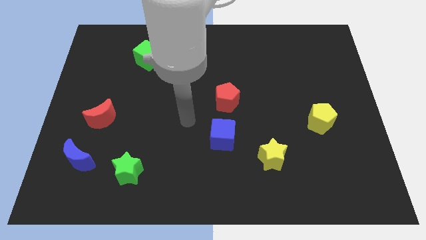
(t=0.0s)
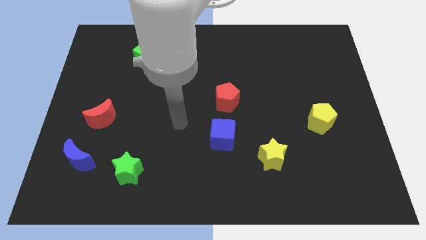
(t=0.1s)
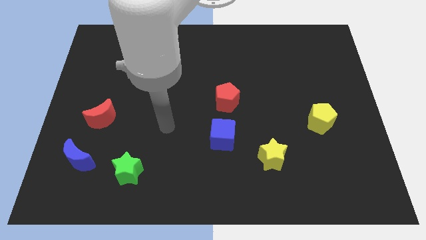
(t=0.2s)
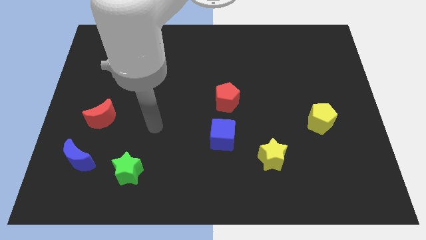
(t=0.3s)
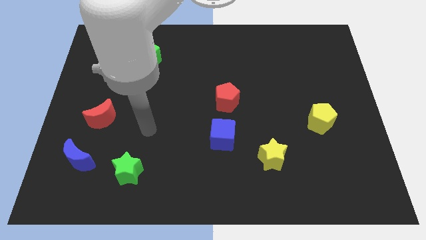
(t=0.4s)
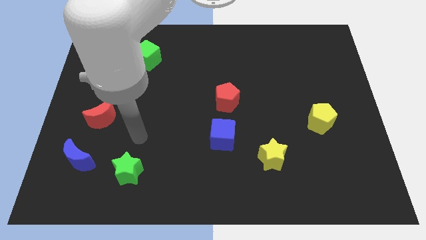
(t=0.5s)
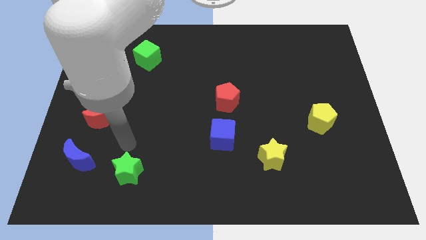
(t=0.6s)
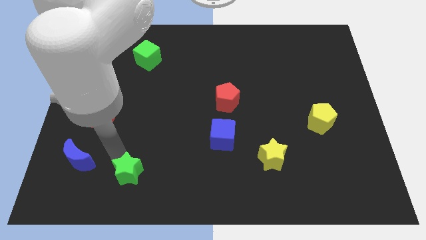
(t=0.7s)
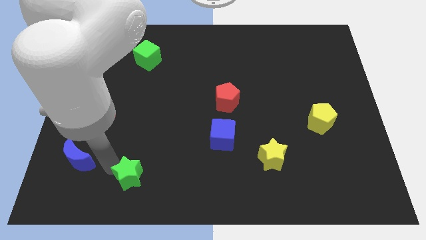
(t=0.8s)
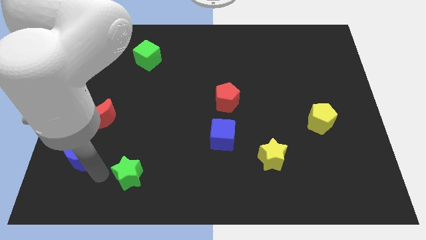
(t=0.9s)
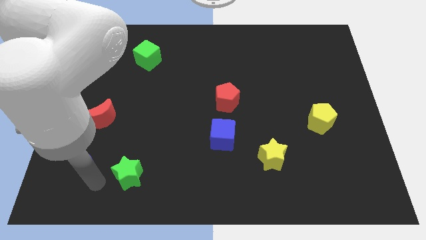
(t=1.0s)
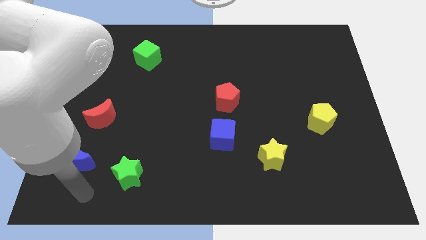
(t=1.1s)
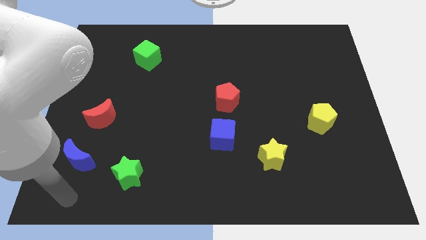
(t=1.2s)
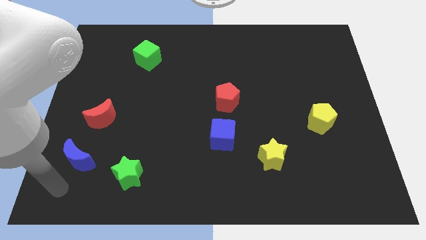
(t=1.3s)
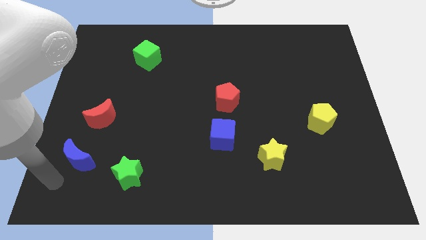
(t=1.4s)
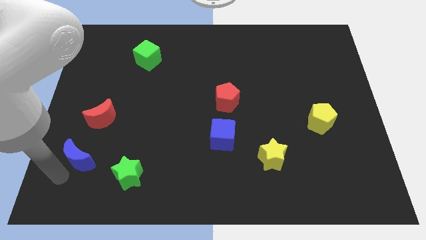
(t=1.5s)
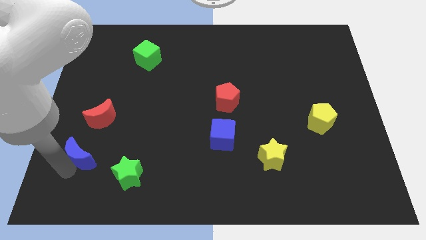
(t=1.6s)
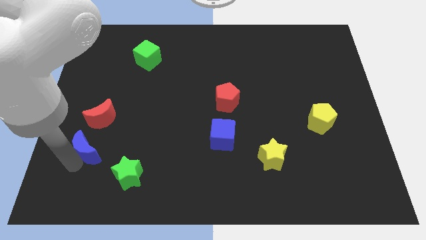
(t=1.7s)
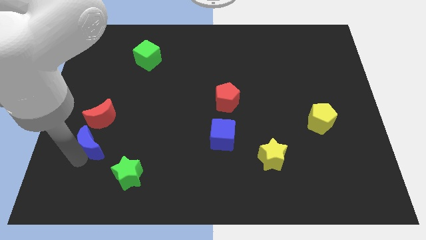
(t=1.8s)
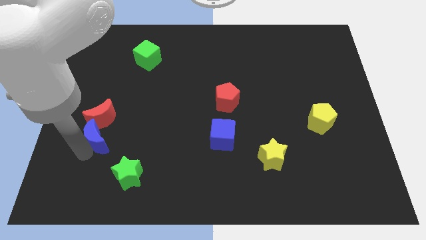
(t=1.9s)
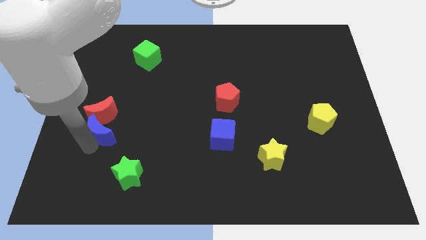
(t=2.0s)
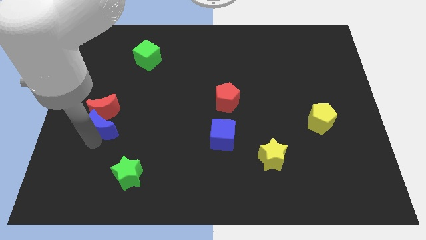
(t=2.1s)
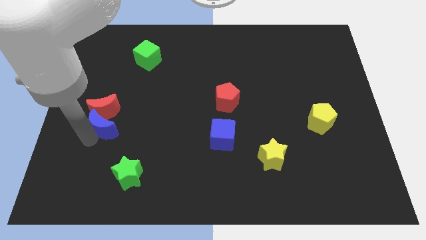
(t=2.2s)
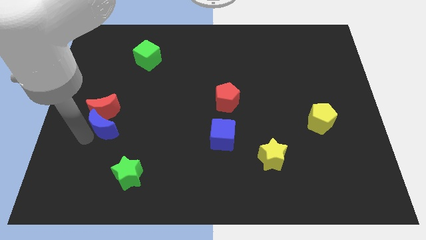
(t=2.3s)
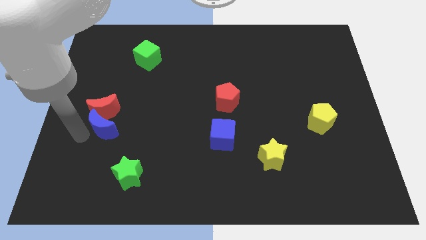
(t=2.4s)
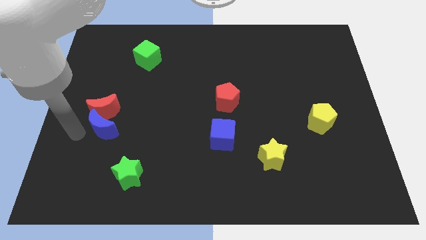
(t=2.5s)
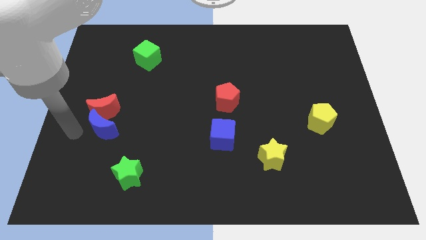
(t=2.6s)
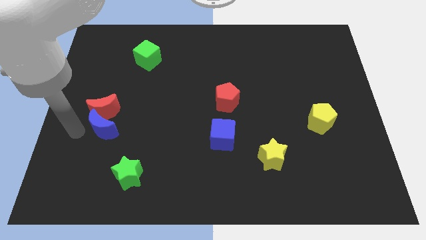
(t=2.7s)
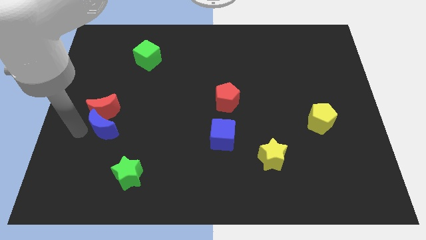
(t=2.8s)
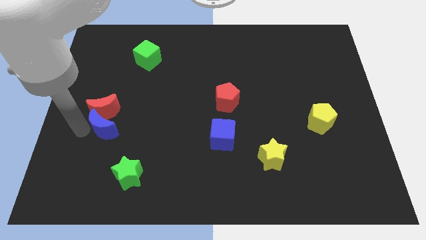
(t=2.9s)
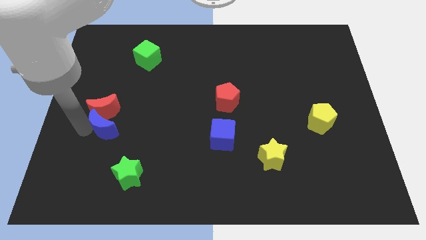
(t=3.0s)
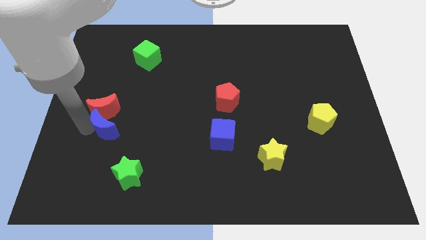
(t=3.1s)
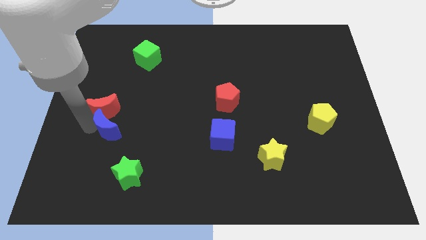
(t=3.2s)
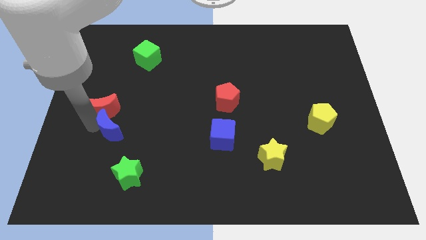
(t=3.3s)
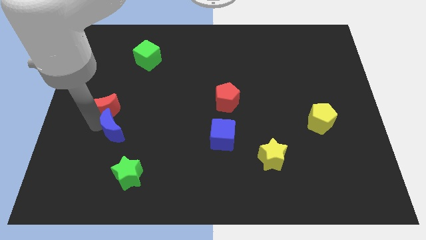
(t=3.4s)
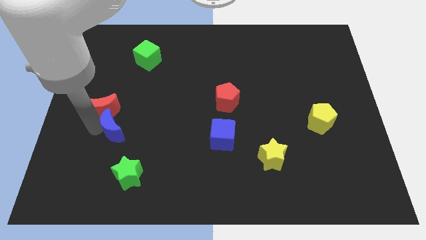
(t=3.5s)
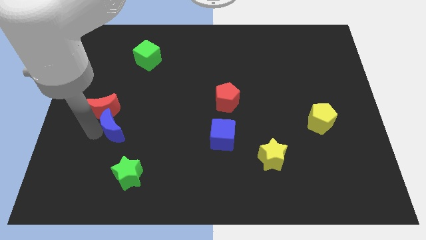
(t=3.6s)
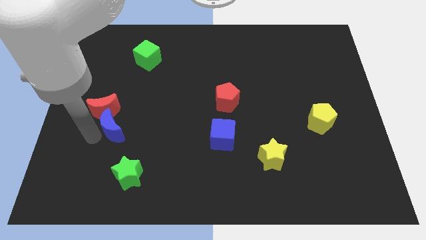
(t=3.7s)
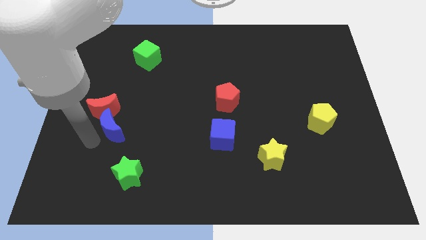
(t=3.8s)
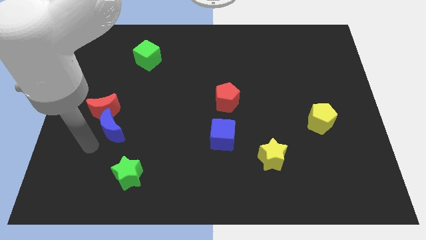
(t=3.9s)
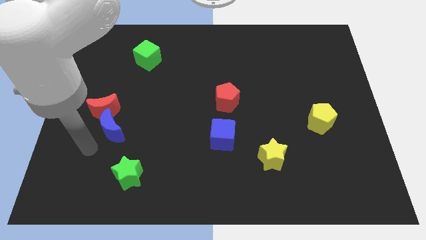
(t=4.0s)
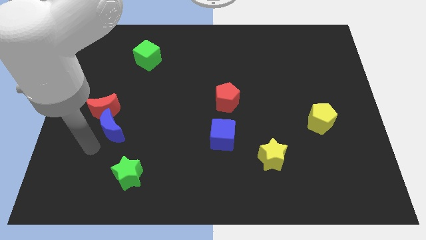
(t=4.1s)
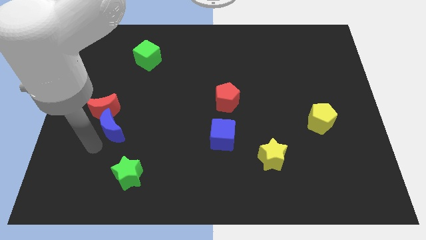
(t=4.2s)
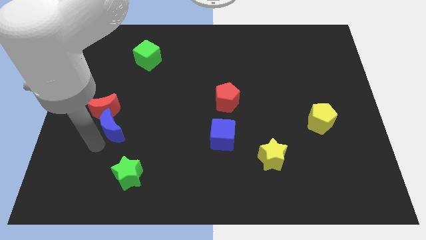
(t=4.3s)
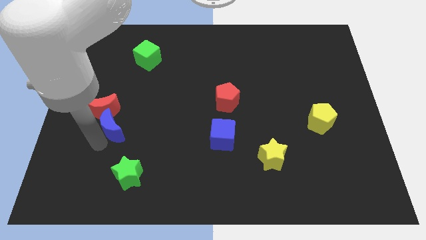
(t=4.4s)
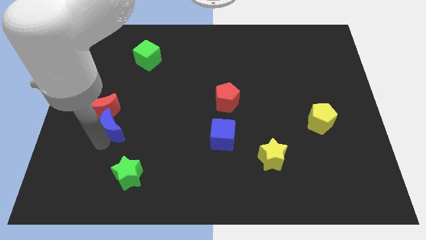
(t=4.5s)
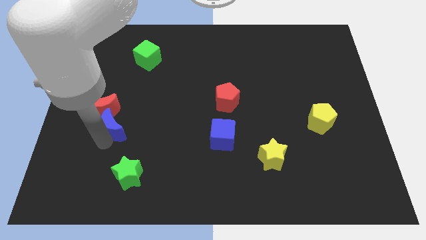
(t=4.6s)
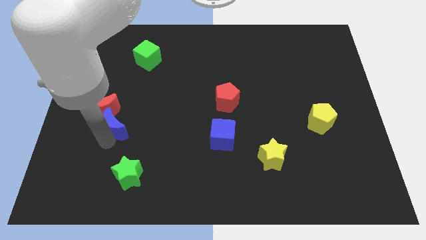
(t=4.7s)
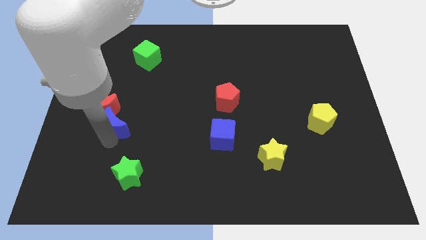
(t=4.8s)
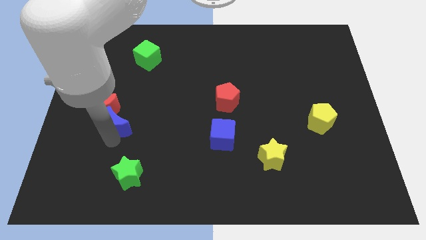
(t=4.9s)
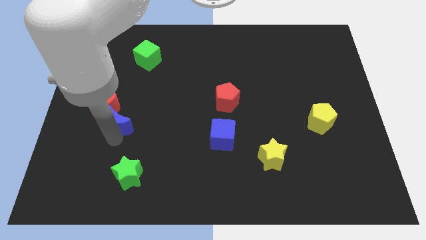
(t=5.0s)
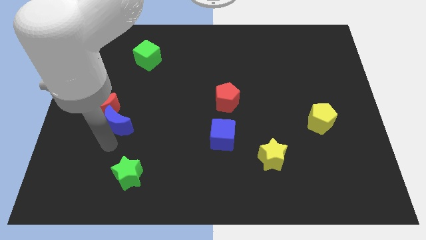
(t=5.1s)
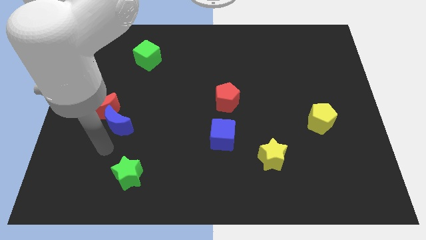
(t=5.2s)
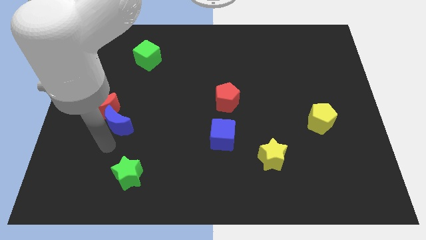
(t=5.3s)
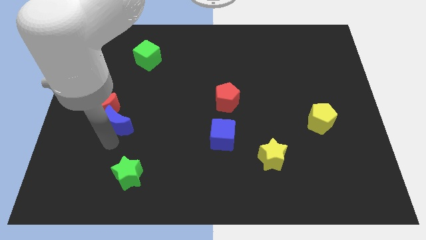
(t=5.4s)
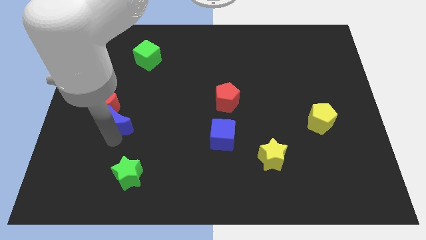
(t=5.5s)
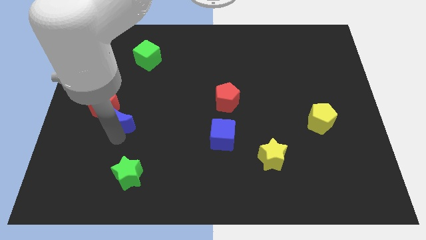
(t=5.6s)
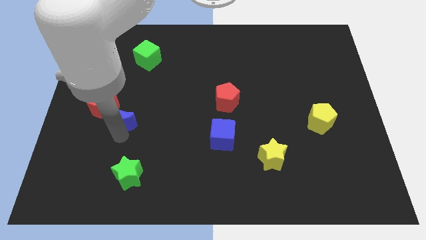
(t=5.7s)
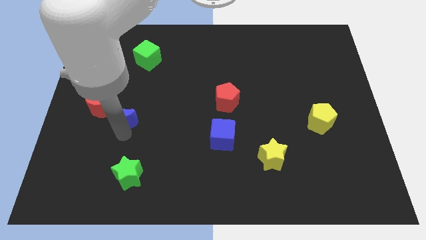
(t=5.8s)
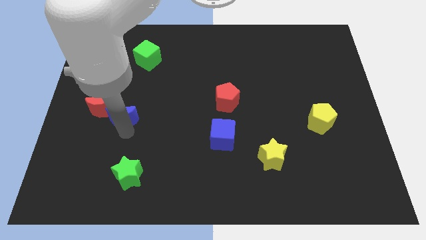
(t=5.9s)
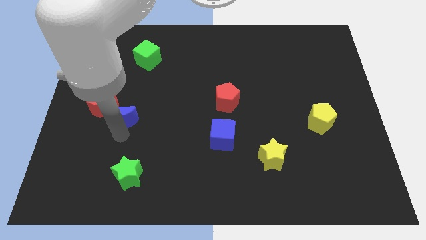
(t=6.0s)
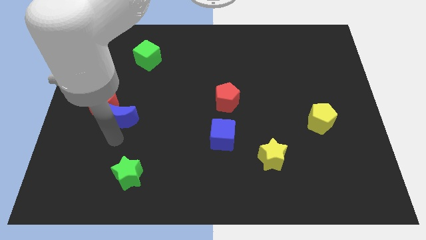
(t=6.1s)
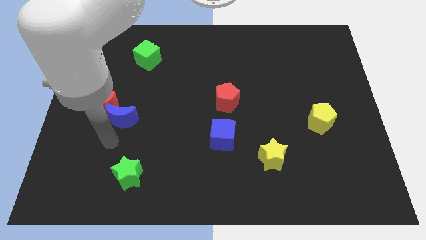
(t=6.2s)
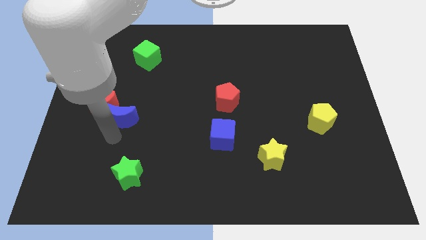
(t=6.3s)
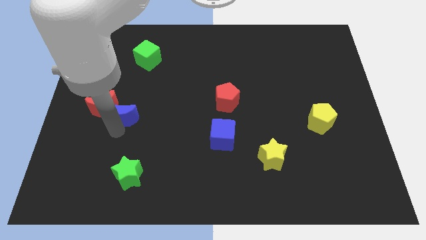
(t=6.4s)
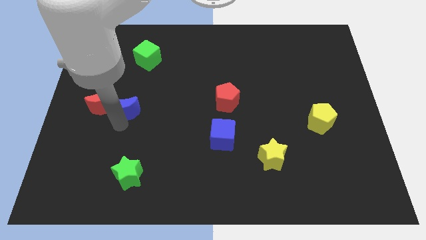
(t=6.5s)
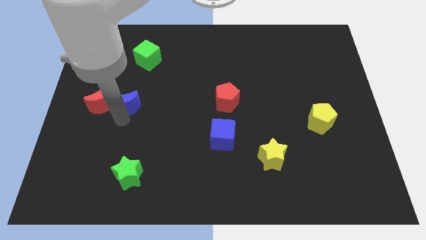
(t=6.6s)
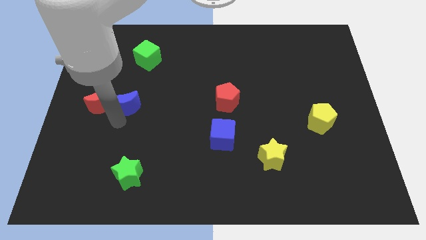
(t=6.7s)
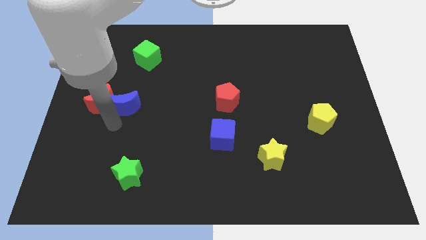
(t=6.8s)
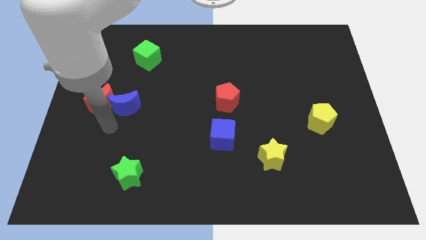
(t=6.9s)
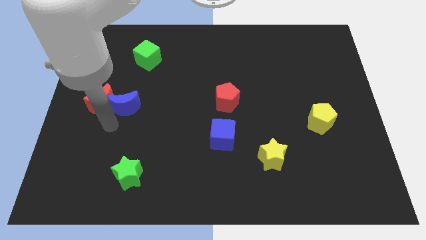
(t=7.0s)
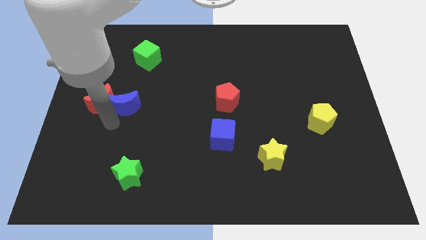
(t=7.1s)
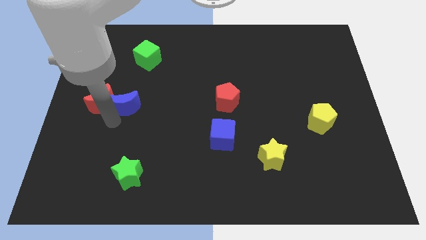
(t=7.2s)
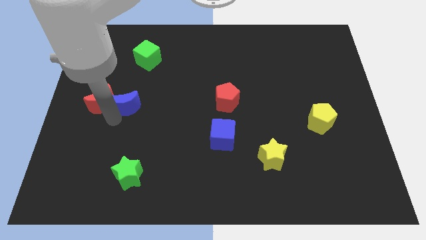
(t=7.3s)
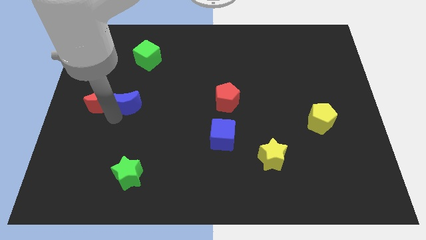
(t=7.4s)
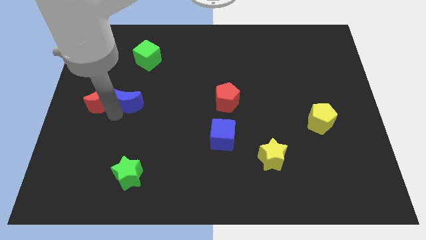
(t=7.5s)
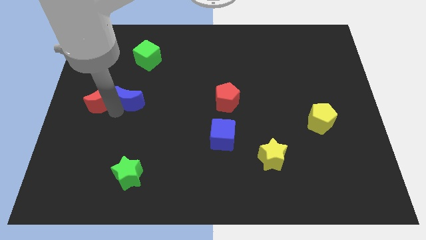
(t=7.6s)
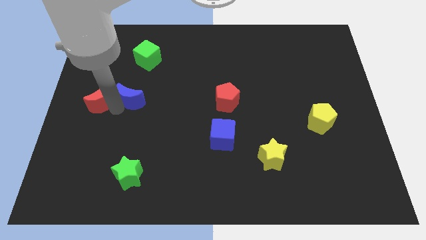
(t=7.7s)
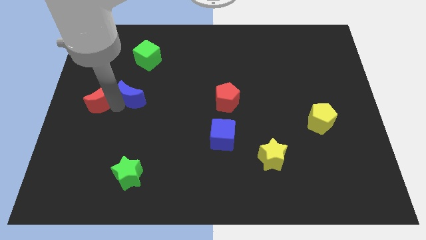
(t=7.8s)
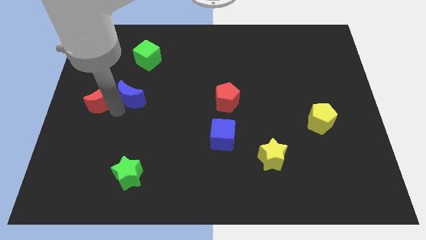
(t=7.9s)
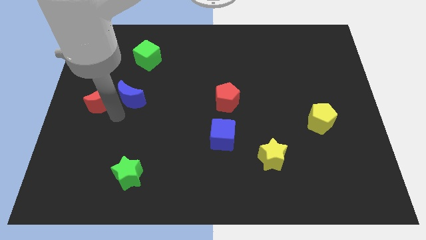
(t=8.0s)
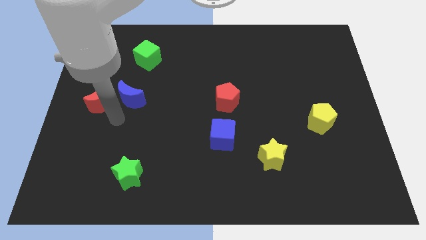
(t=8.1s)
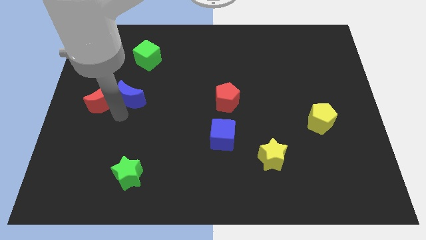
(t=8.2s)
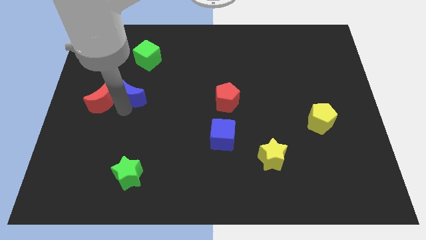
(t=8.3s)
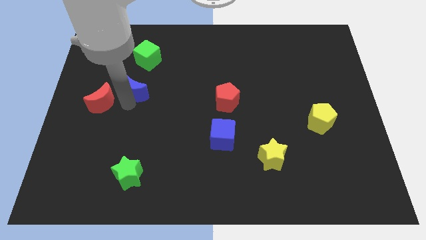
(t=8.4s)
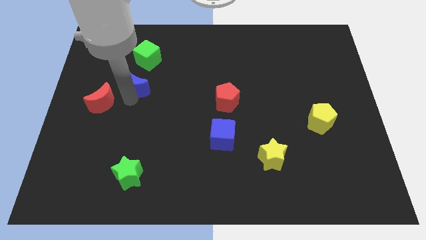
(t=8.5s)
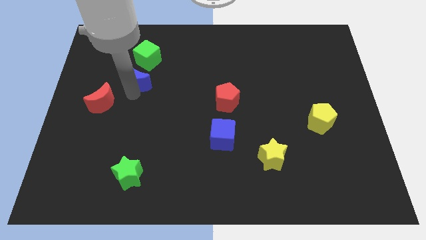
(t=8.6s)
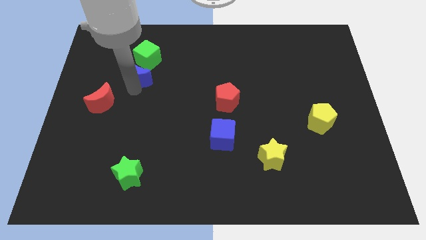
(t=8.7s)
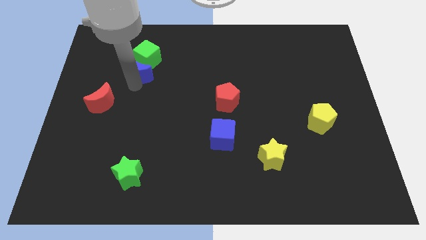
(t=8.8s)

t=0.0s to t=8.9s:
slide the blue moon next to the green cube
